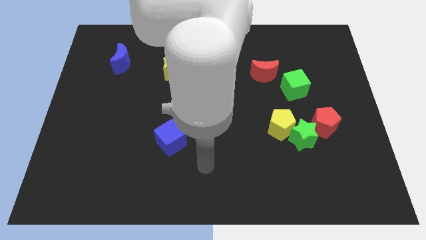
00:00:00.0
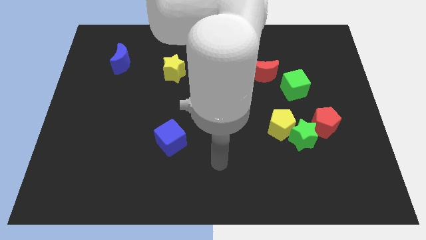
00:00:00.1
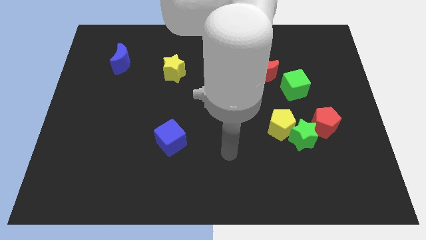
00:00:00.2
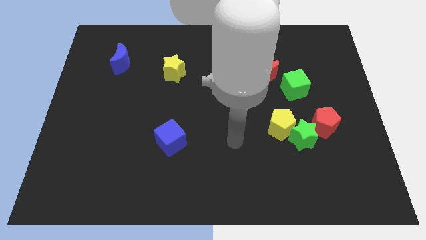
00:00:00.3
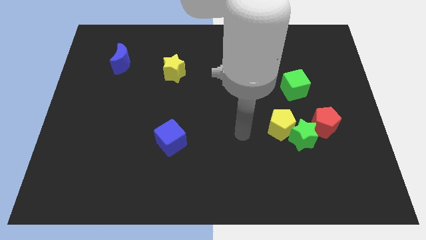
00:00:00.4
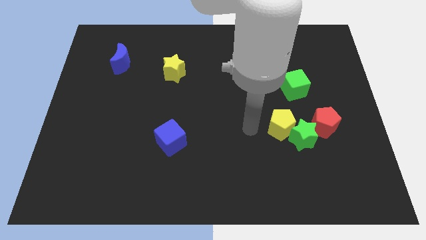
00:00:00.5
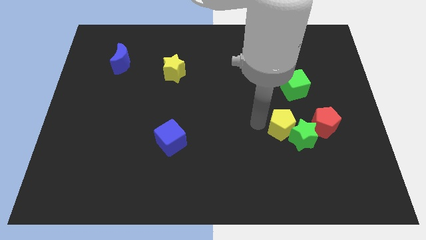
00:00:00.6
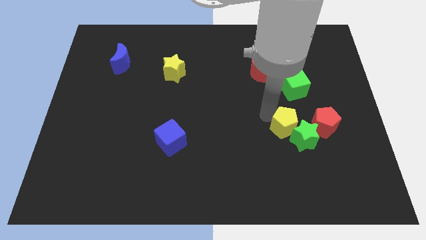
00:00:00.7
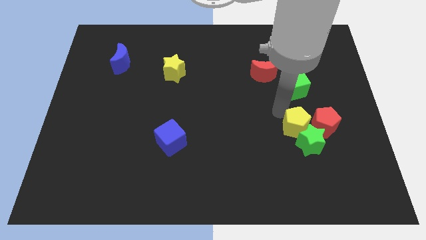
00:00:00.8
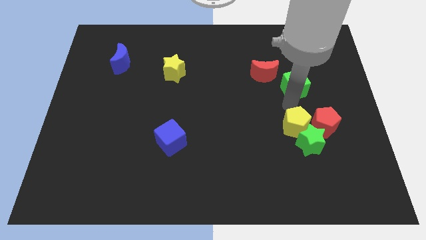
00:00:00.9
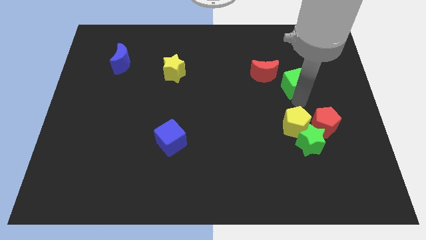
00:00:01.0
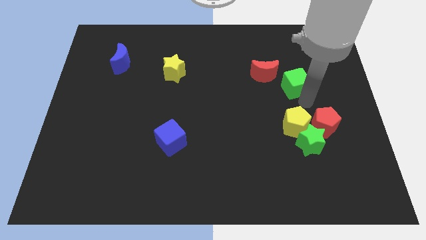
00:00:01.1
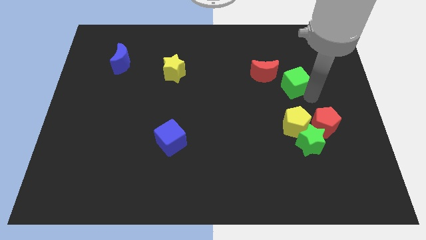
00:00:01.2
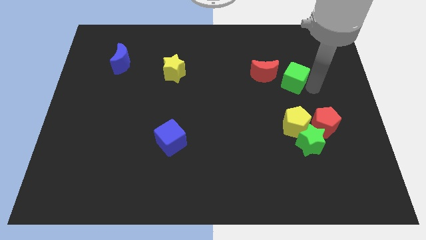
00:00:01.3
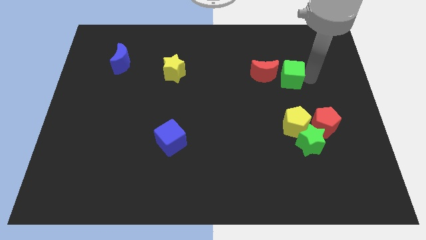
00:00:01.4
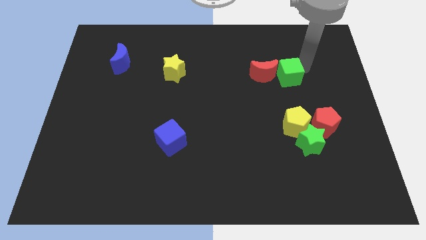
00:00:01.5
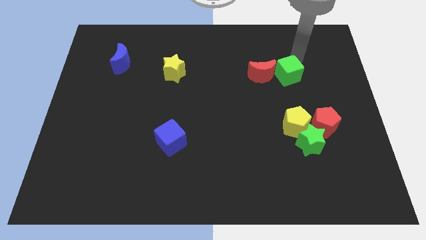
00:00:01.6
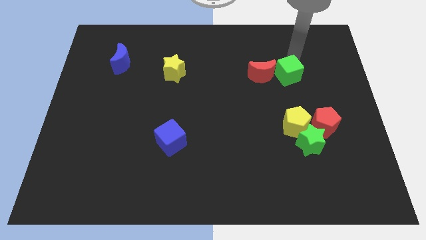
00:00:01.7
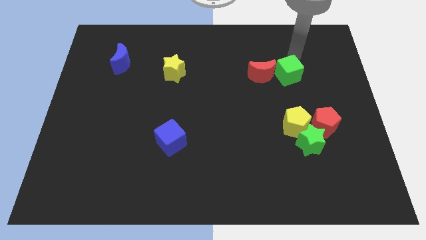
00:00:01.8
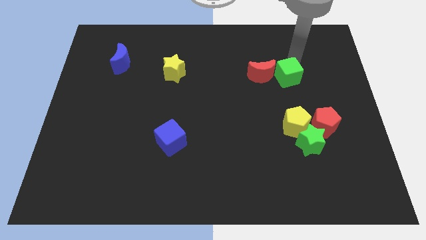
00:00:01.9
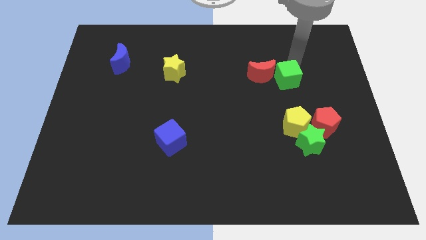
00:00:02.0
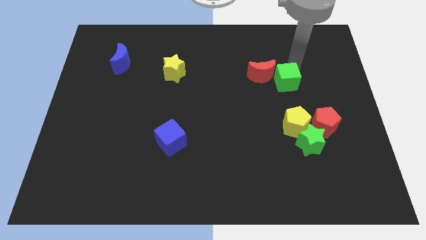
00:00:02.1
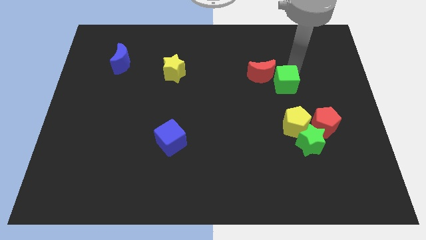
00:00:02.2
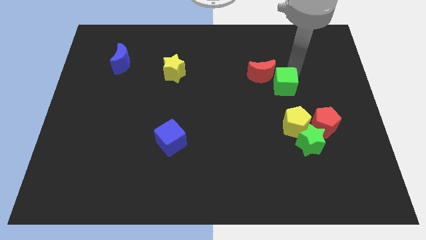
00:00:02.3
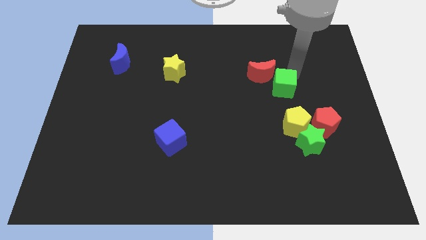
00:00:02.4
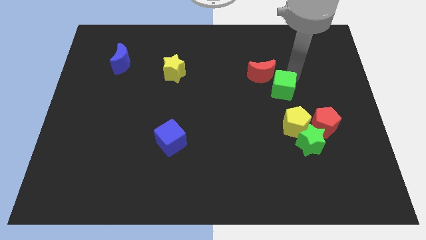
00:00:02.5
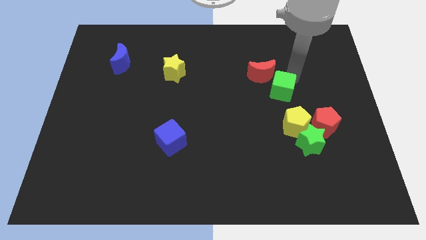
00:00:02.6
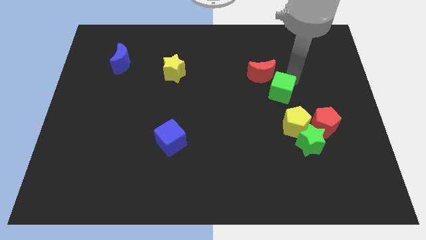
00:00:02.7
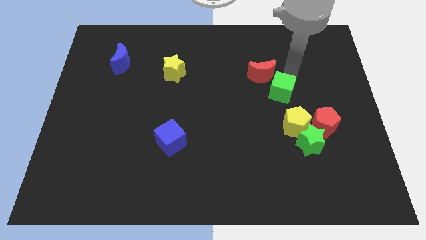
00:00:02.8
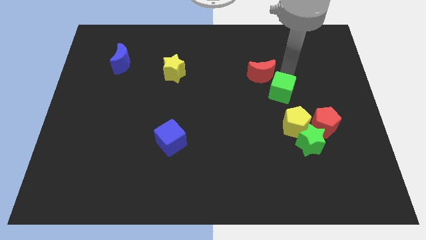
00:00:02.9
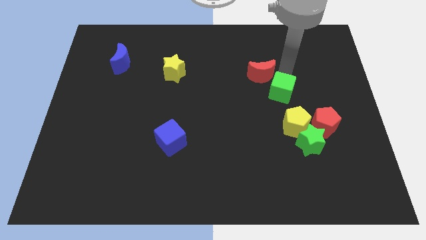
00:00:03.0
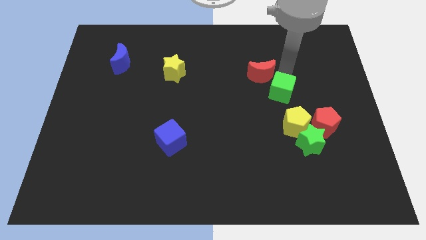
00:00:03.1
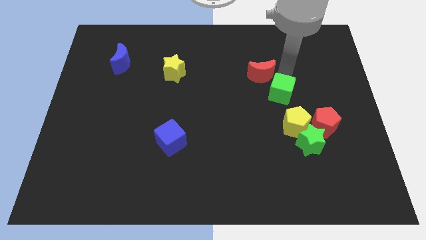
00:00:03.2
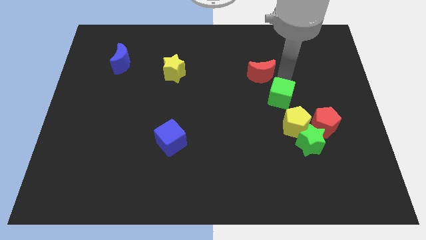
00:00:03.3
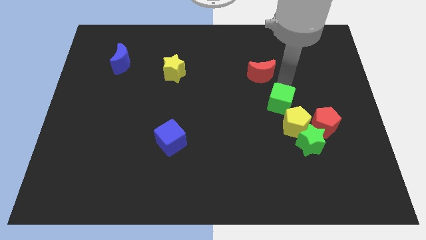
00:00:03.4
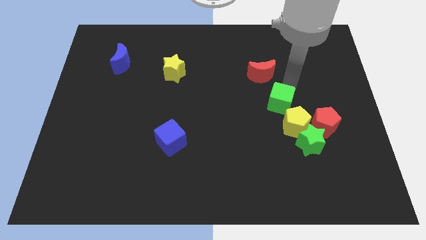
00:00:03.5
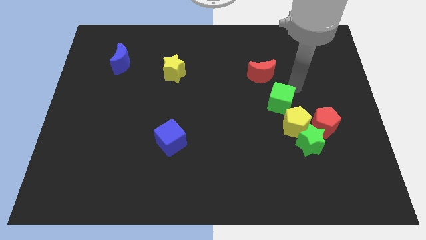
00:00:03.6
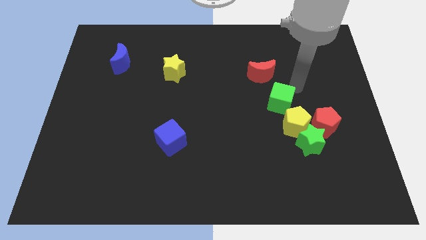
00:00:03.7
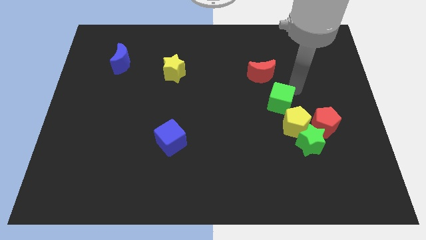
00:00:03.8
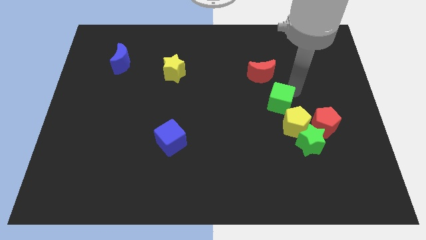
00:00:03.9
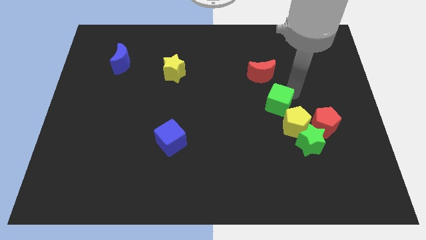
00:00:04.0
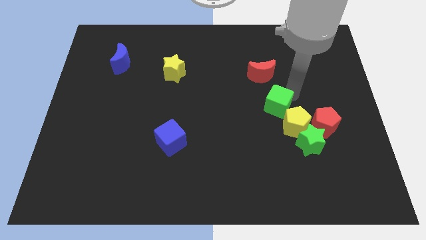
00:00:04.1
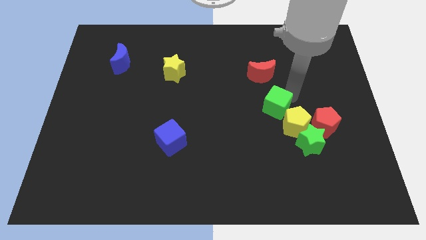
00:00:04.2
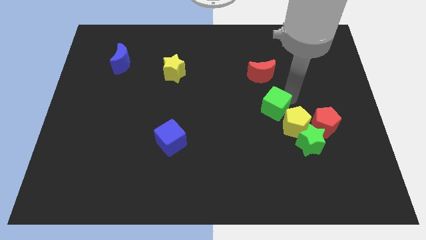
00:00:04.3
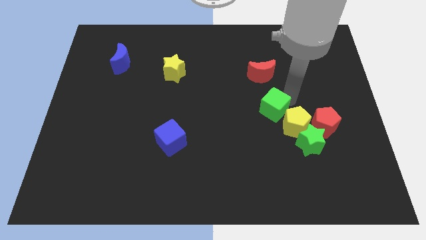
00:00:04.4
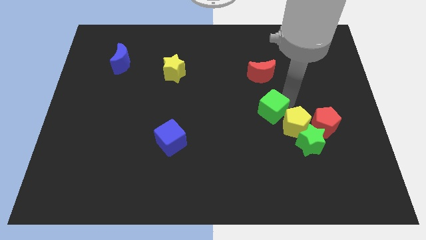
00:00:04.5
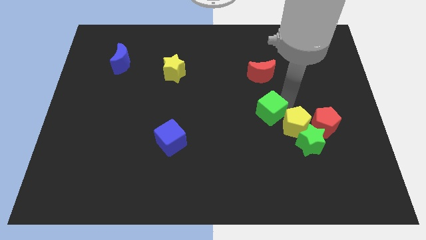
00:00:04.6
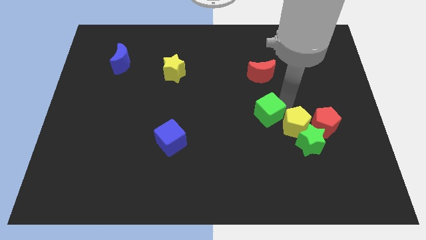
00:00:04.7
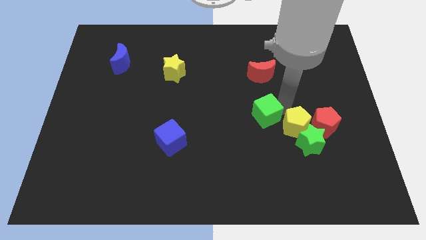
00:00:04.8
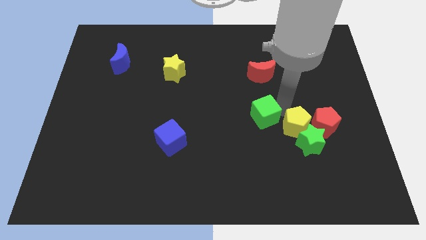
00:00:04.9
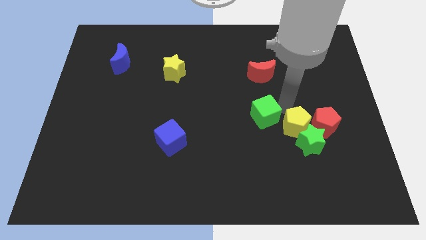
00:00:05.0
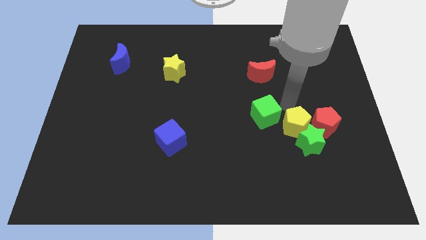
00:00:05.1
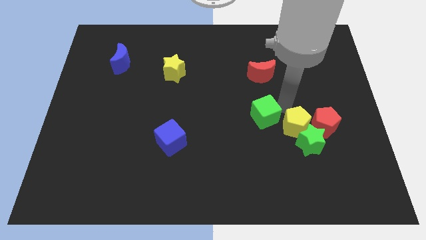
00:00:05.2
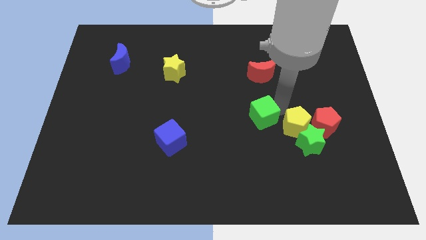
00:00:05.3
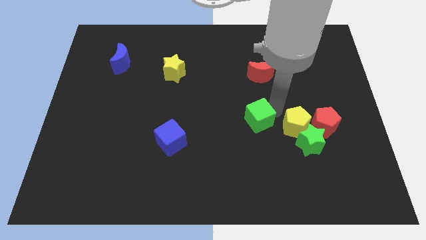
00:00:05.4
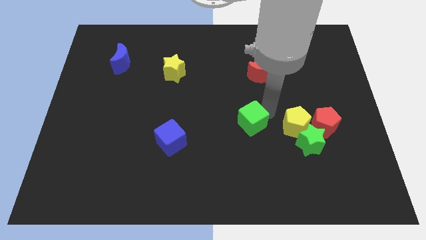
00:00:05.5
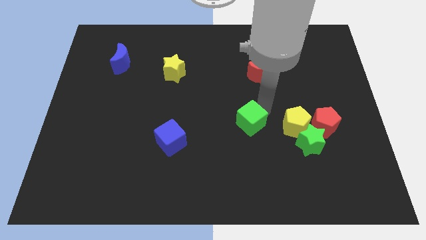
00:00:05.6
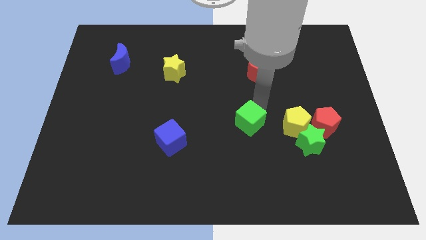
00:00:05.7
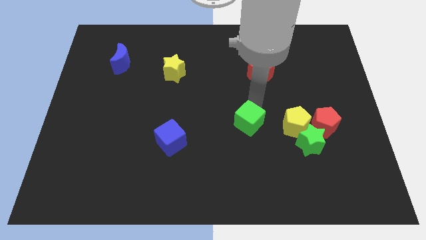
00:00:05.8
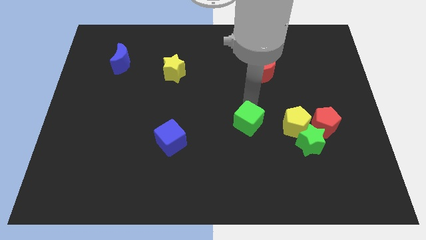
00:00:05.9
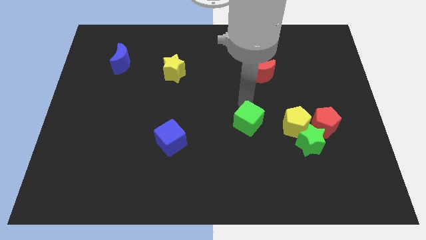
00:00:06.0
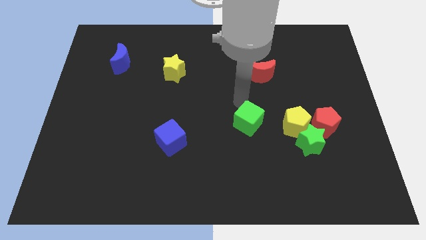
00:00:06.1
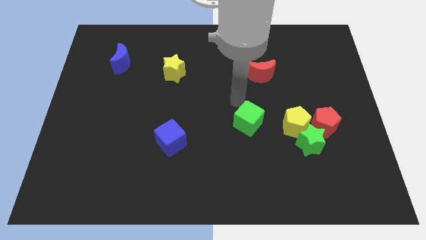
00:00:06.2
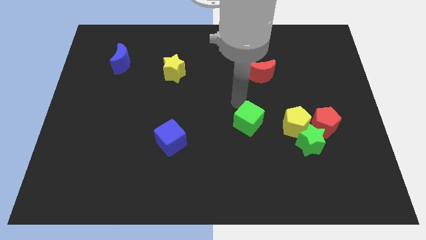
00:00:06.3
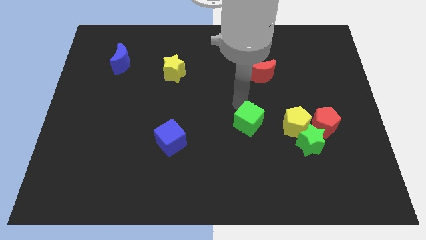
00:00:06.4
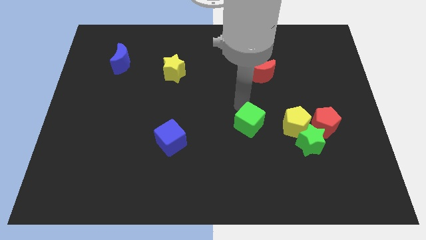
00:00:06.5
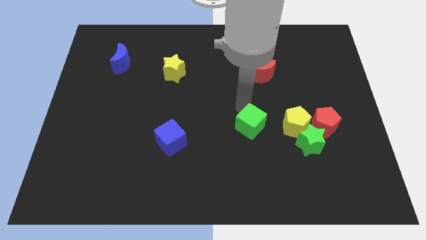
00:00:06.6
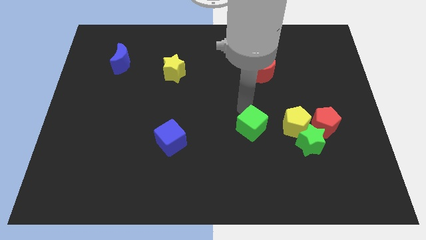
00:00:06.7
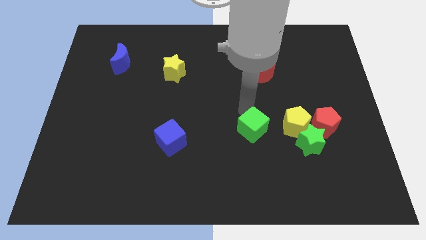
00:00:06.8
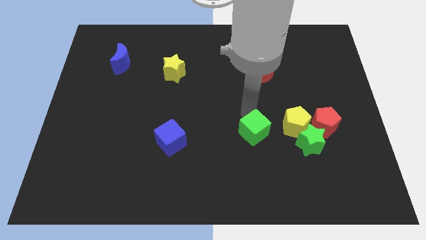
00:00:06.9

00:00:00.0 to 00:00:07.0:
slightly slide the green cube downwards

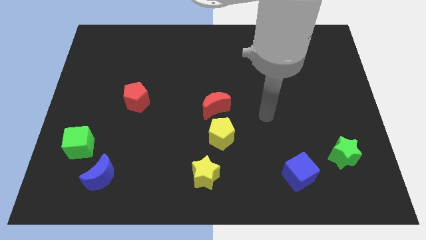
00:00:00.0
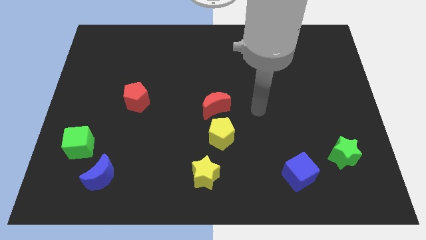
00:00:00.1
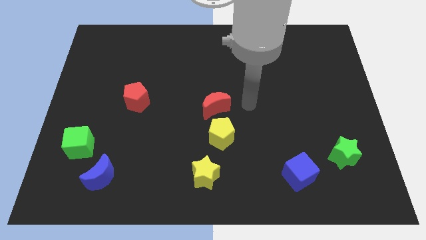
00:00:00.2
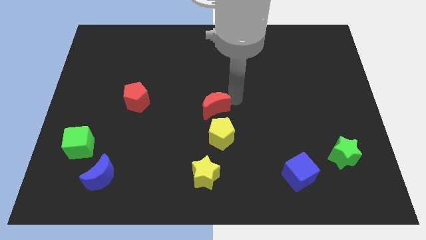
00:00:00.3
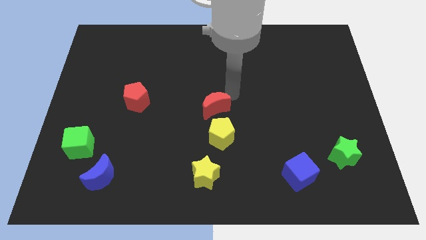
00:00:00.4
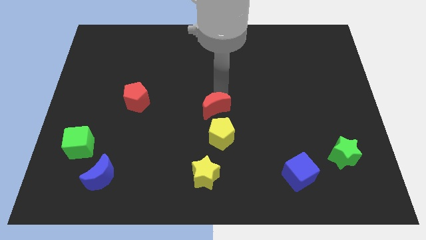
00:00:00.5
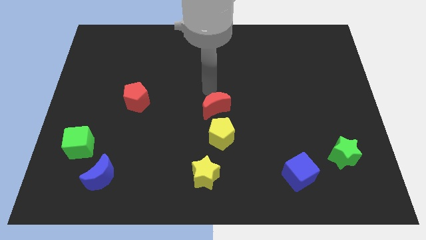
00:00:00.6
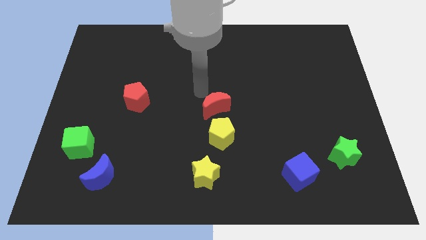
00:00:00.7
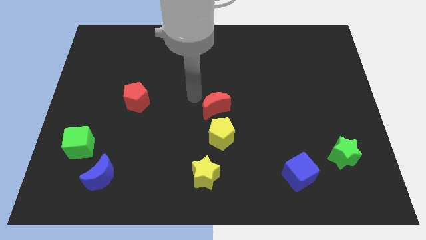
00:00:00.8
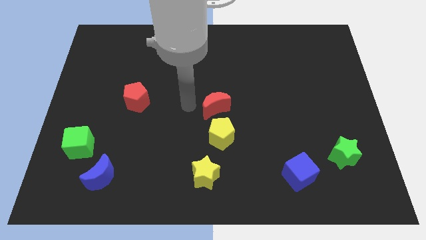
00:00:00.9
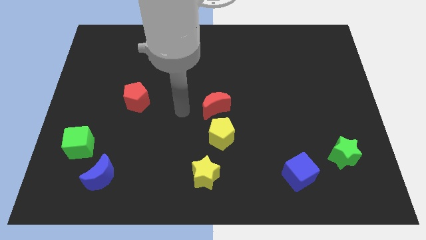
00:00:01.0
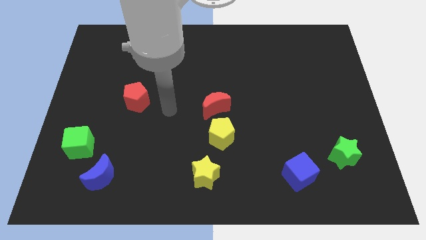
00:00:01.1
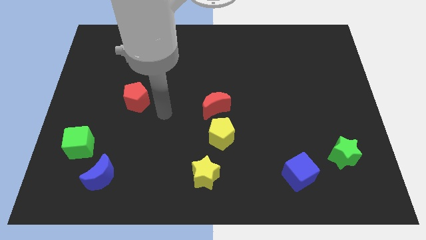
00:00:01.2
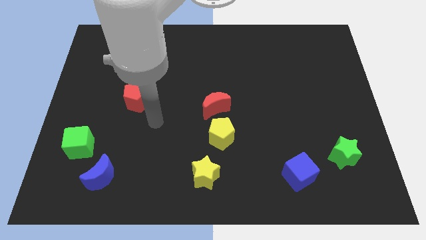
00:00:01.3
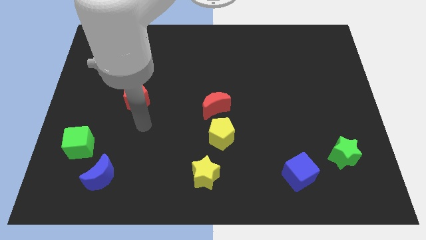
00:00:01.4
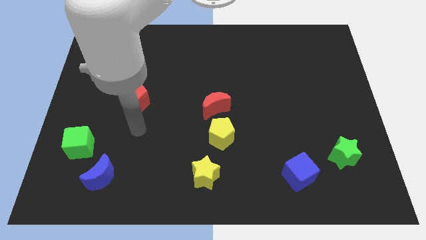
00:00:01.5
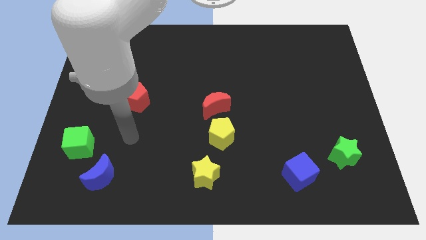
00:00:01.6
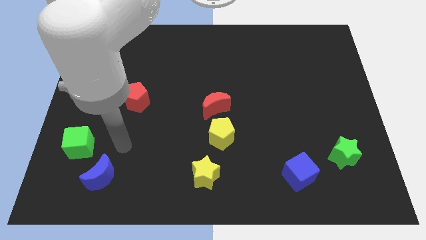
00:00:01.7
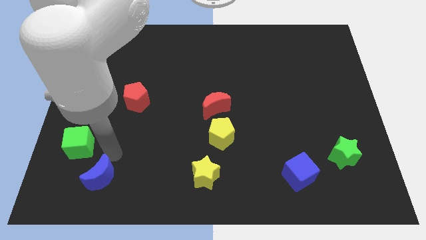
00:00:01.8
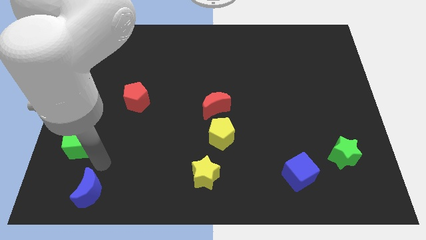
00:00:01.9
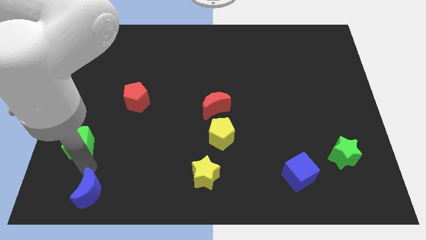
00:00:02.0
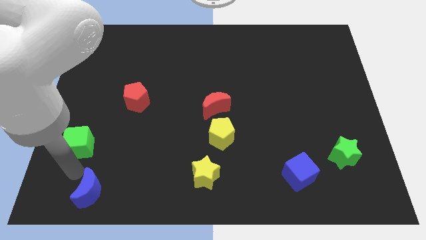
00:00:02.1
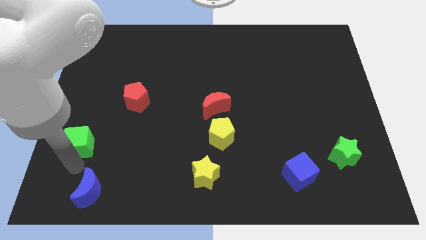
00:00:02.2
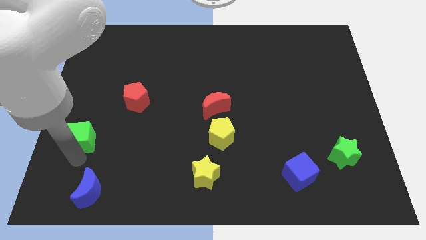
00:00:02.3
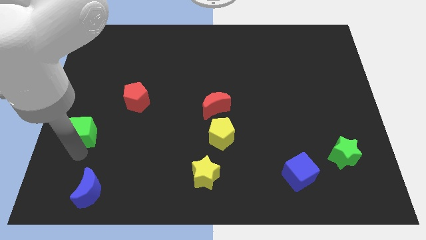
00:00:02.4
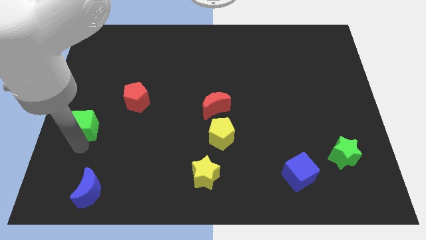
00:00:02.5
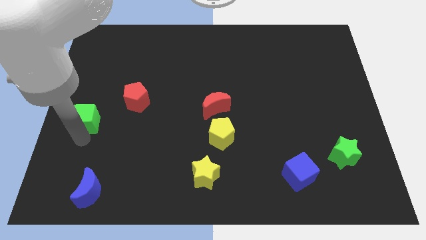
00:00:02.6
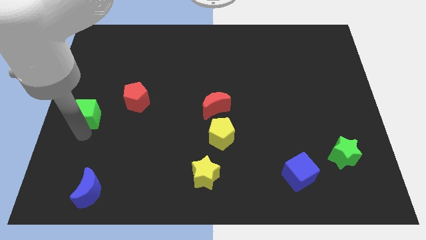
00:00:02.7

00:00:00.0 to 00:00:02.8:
slightly move the green cube upwards
